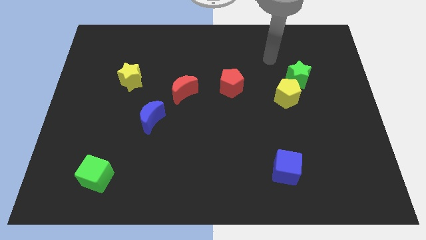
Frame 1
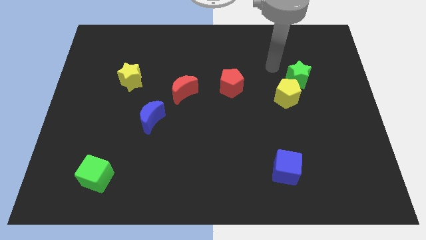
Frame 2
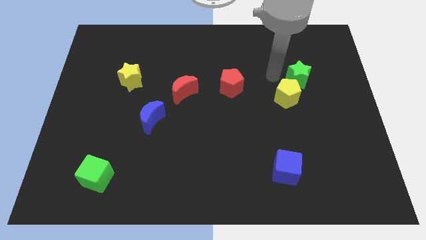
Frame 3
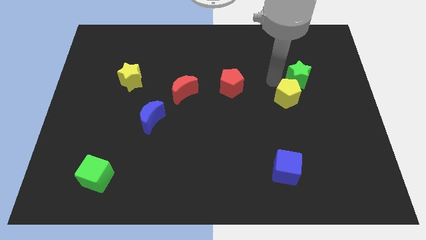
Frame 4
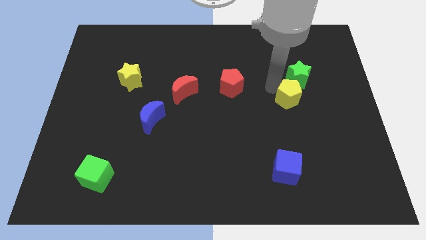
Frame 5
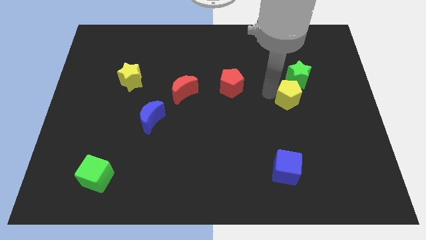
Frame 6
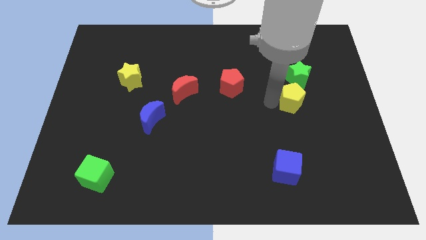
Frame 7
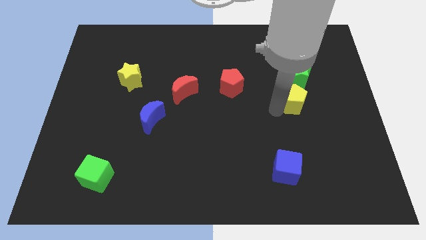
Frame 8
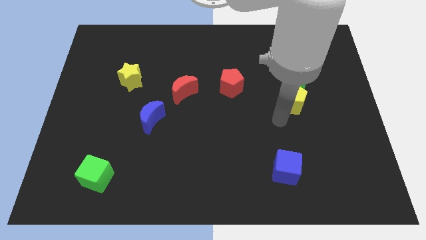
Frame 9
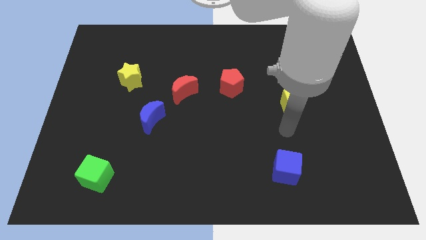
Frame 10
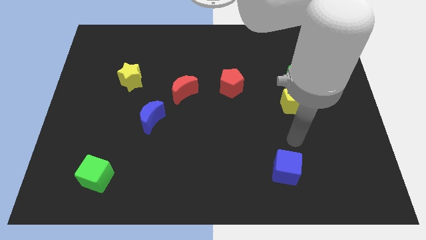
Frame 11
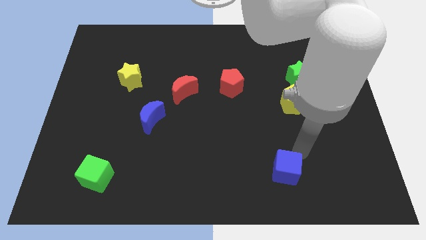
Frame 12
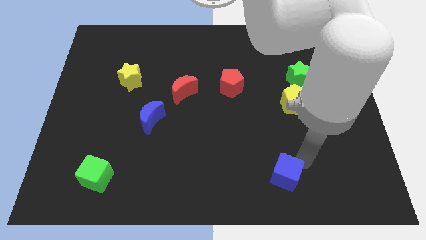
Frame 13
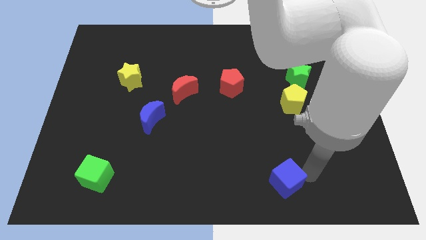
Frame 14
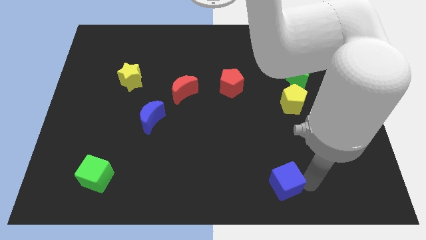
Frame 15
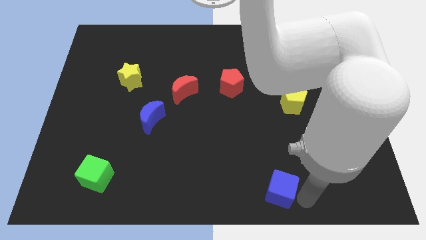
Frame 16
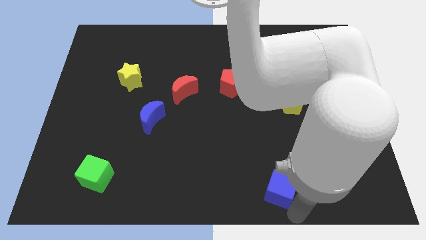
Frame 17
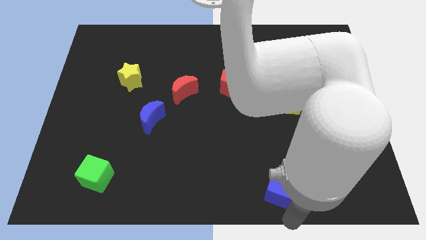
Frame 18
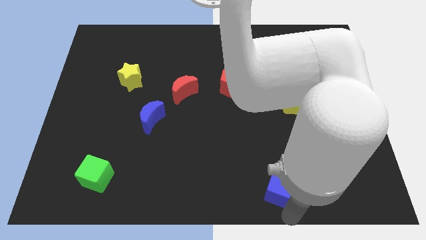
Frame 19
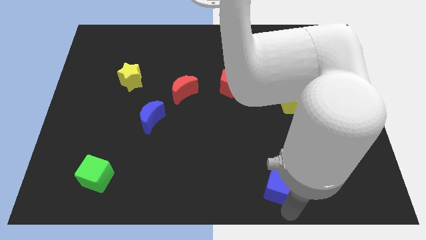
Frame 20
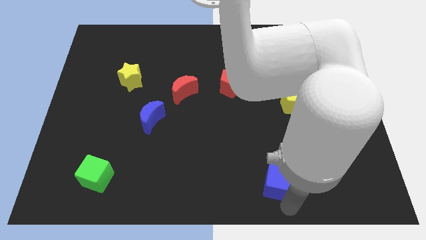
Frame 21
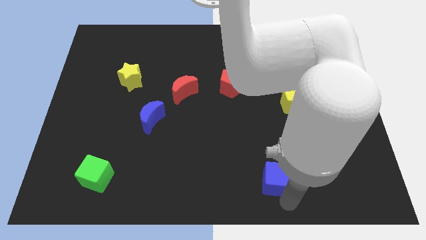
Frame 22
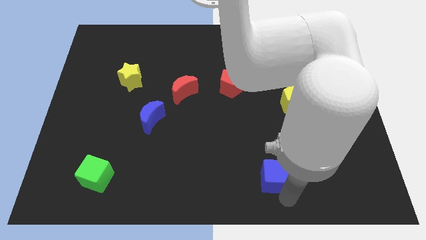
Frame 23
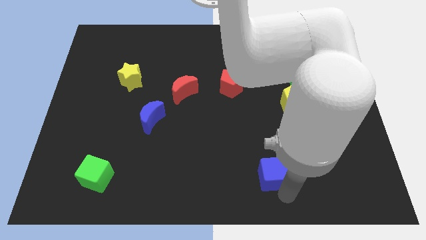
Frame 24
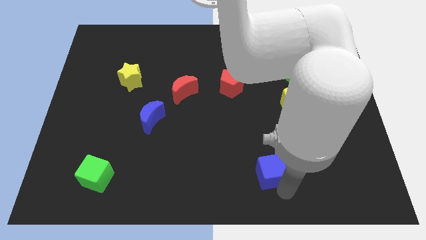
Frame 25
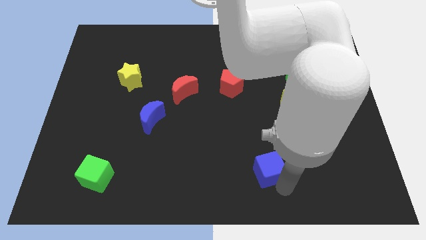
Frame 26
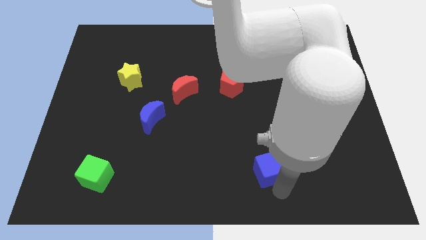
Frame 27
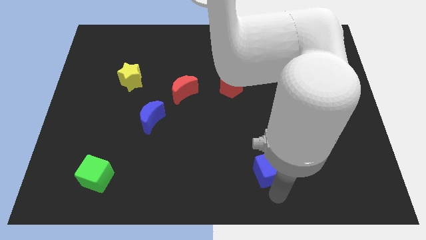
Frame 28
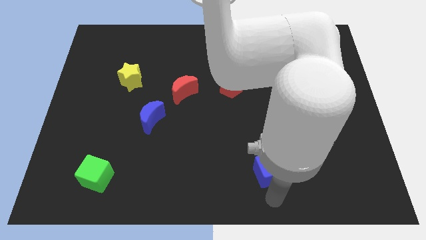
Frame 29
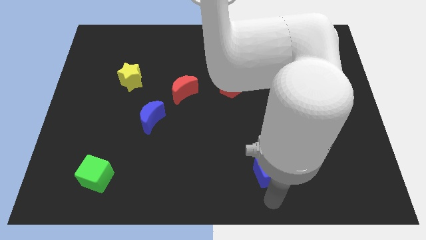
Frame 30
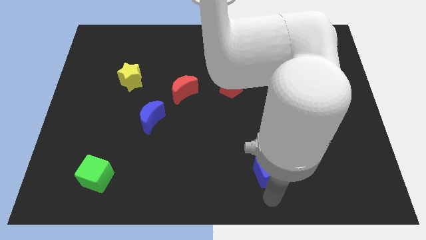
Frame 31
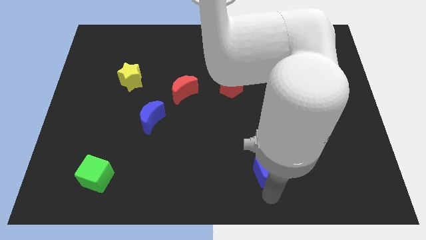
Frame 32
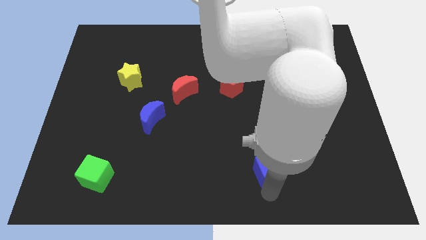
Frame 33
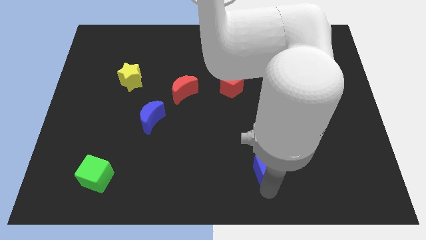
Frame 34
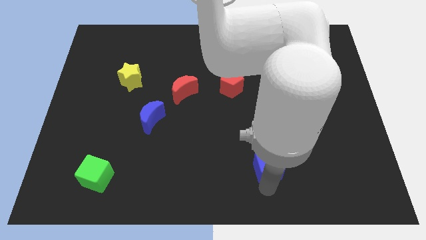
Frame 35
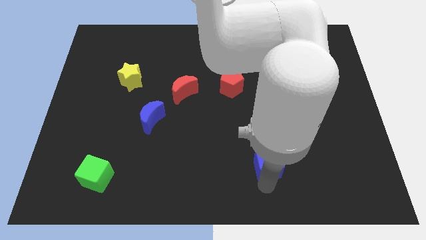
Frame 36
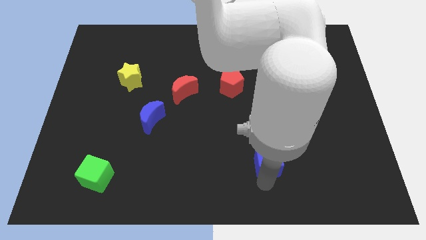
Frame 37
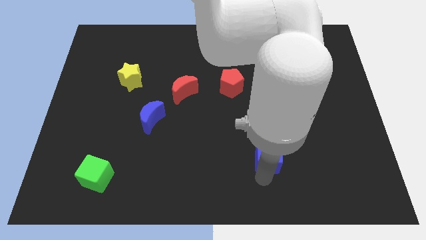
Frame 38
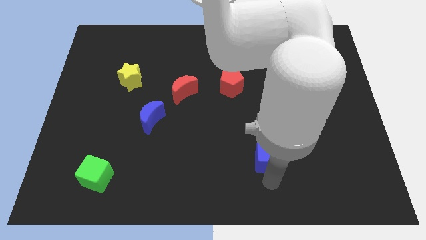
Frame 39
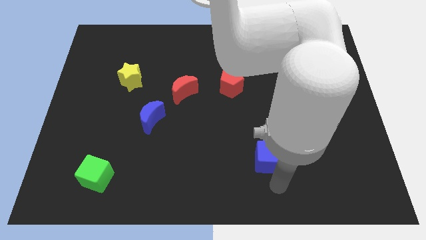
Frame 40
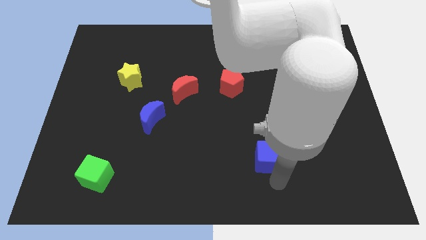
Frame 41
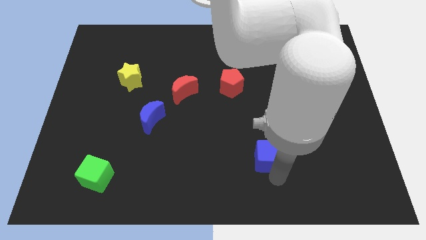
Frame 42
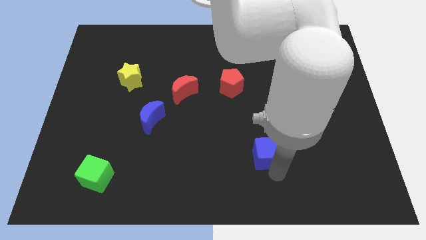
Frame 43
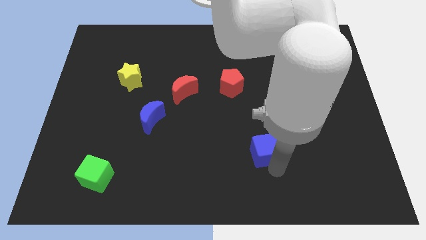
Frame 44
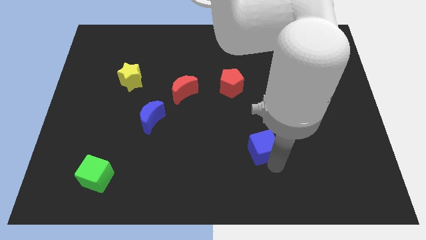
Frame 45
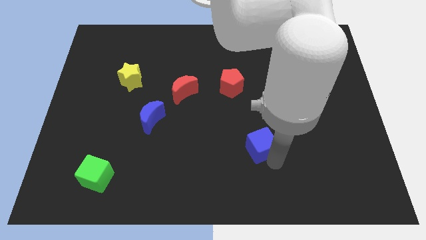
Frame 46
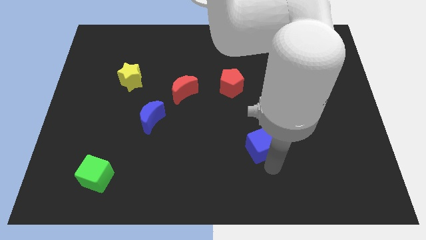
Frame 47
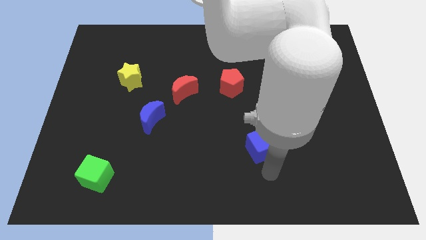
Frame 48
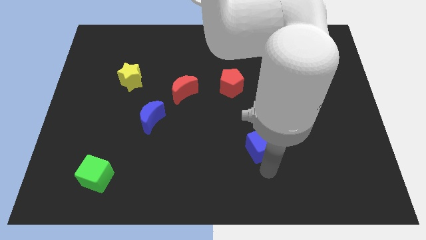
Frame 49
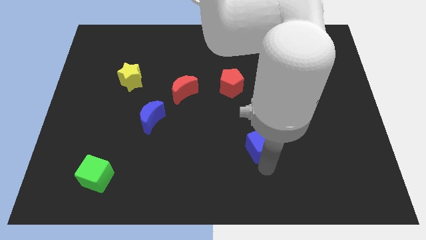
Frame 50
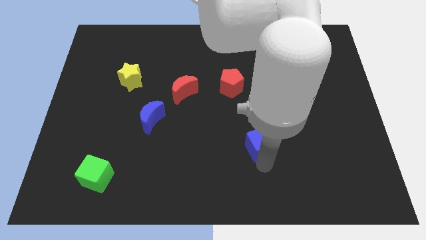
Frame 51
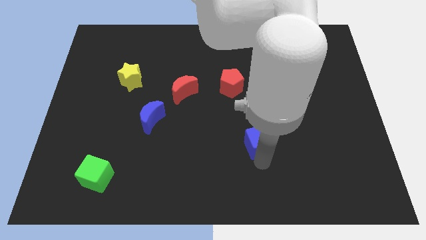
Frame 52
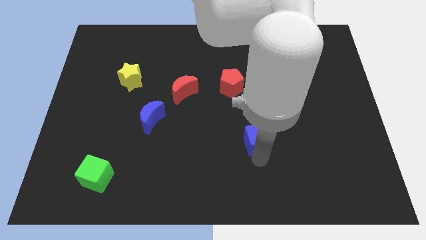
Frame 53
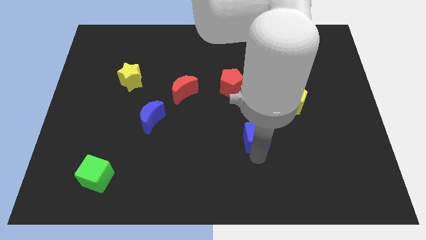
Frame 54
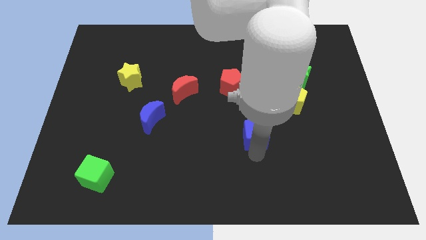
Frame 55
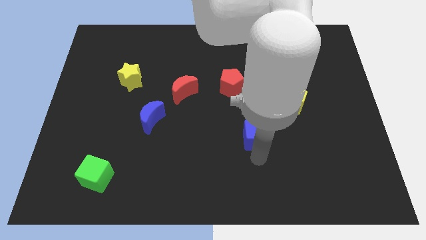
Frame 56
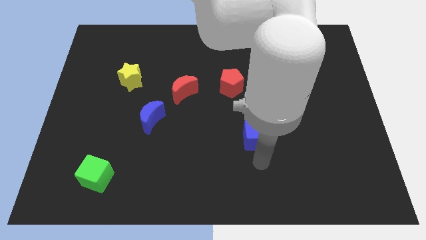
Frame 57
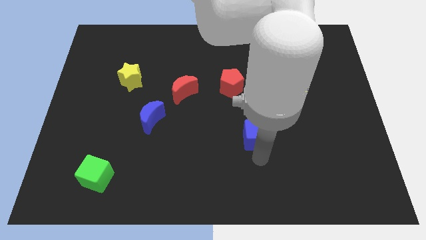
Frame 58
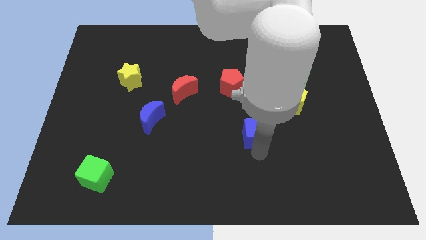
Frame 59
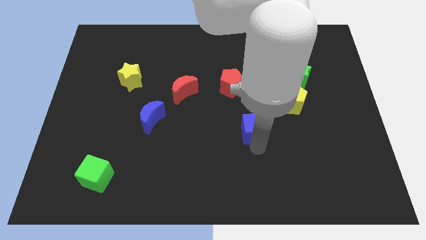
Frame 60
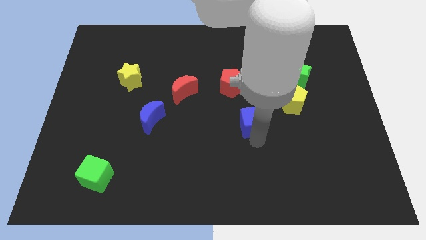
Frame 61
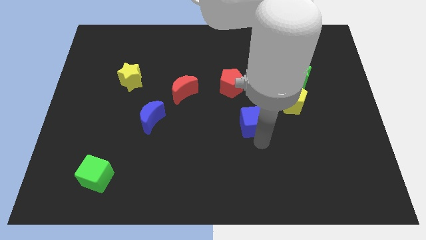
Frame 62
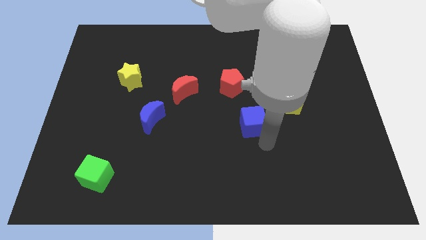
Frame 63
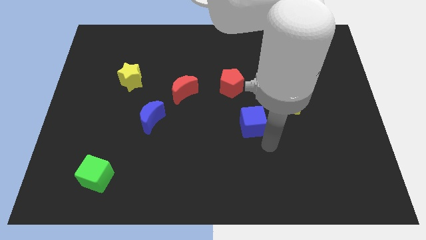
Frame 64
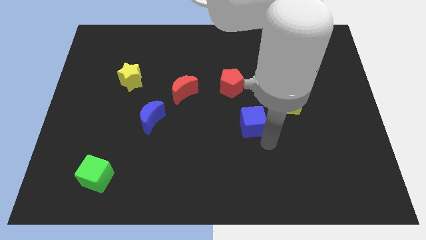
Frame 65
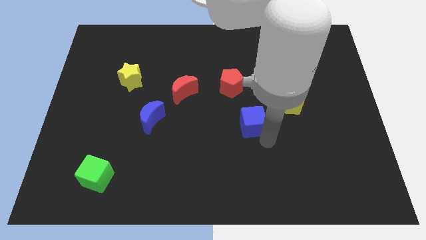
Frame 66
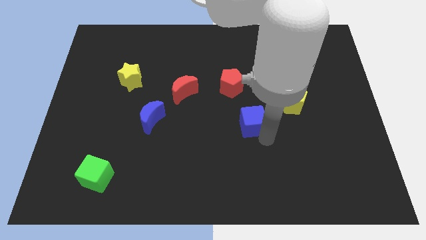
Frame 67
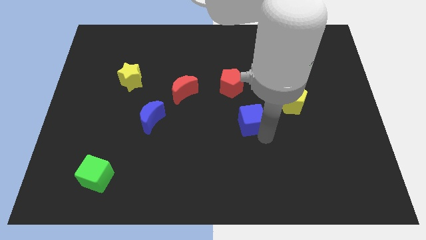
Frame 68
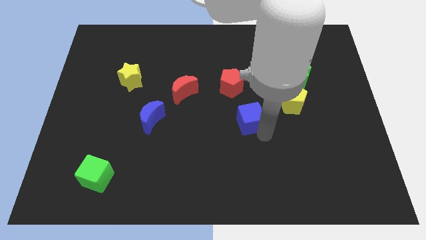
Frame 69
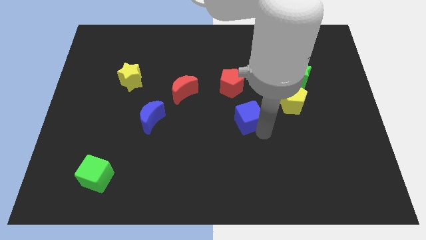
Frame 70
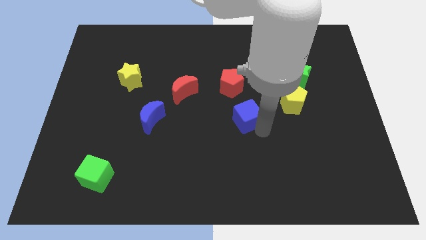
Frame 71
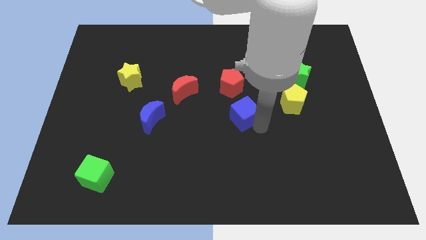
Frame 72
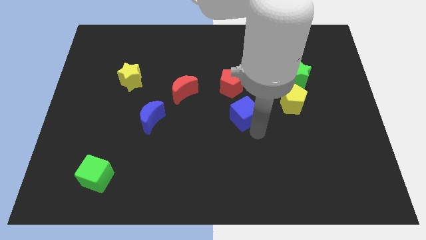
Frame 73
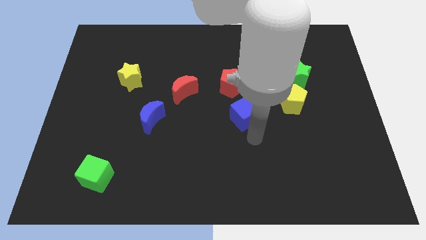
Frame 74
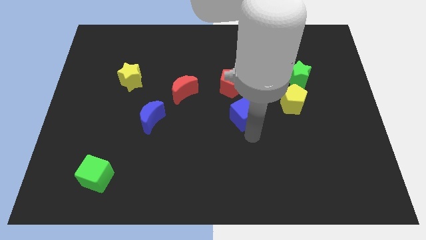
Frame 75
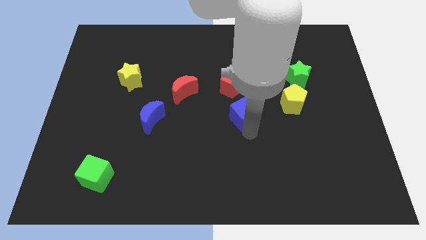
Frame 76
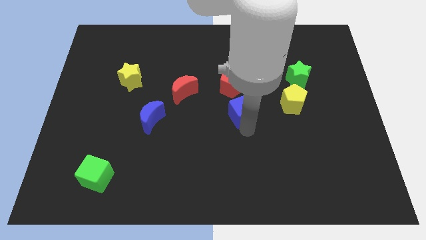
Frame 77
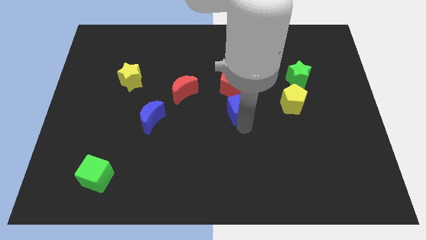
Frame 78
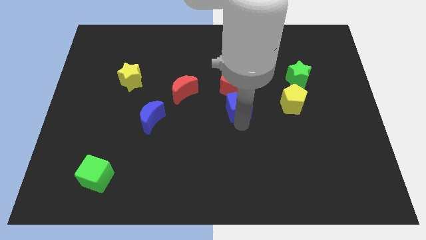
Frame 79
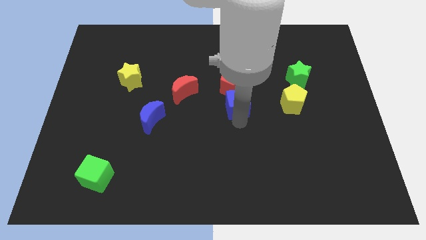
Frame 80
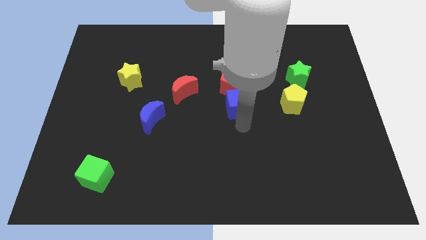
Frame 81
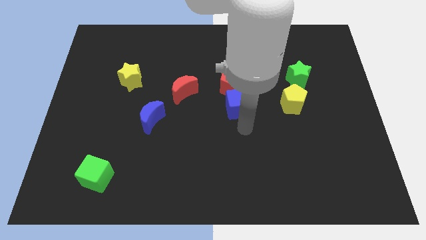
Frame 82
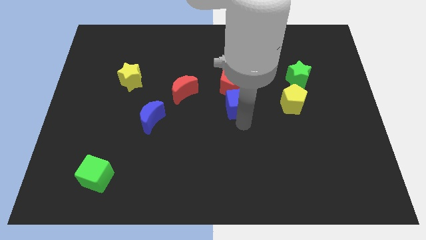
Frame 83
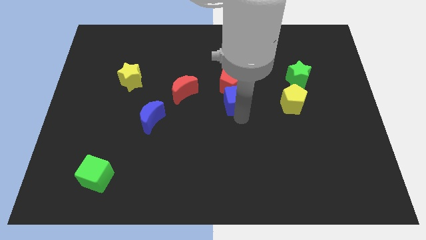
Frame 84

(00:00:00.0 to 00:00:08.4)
push the blue cube close to the red pentagon
